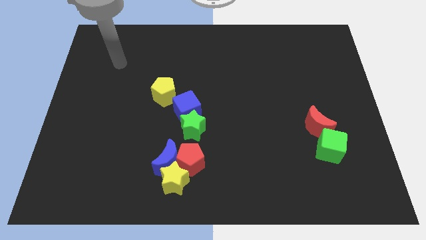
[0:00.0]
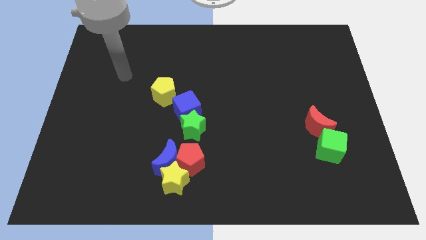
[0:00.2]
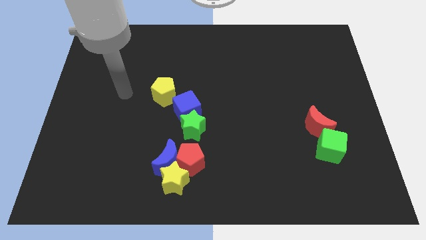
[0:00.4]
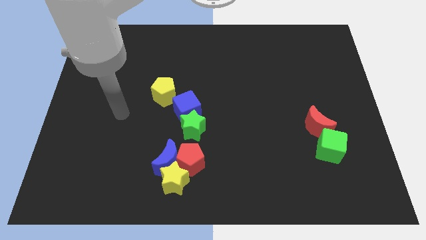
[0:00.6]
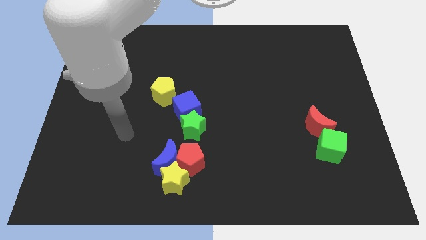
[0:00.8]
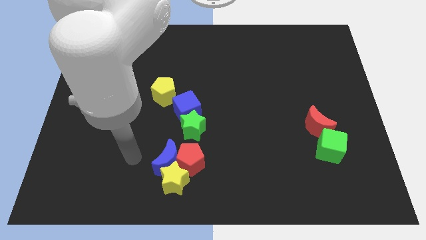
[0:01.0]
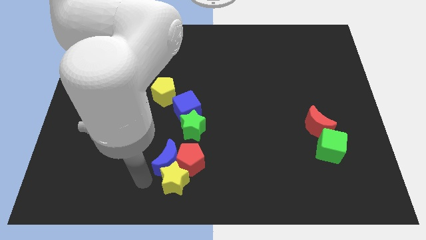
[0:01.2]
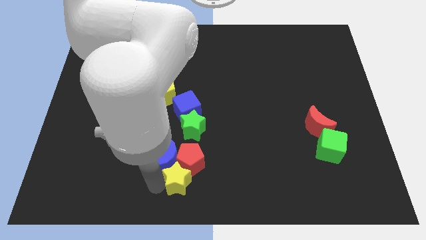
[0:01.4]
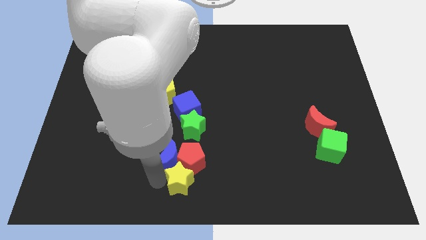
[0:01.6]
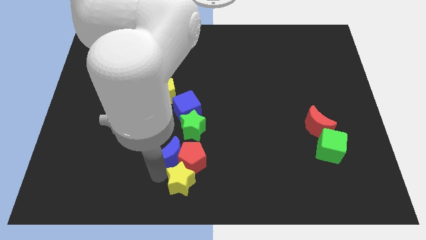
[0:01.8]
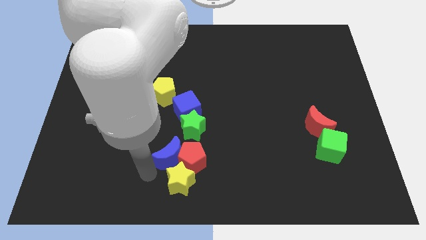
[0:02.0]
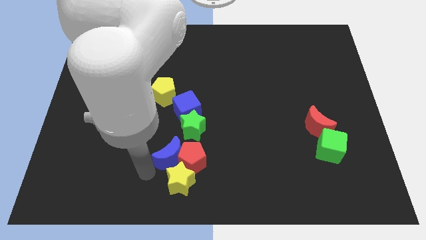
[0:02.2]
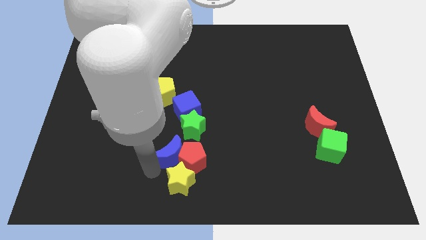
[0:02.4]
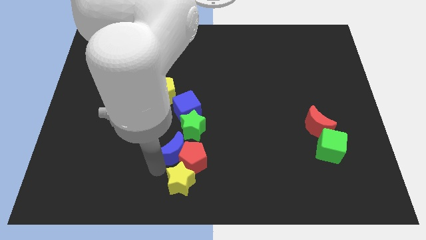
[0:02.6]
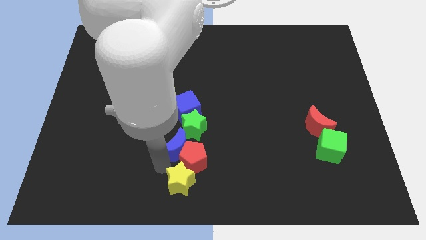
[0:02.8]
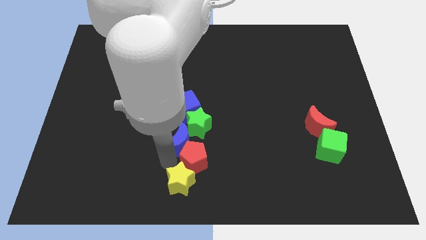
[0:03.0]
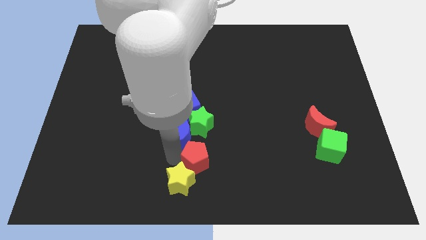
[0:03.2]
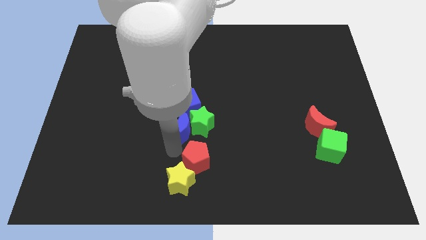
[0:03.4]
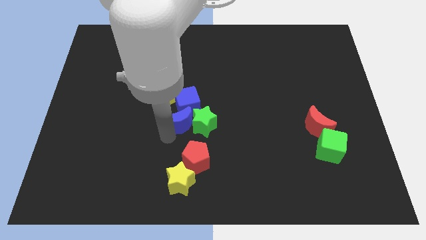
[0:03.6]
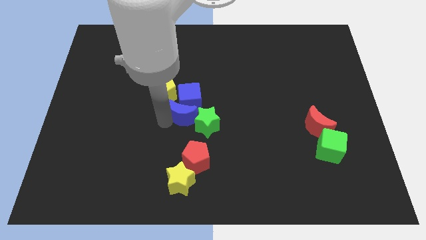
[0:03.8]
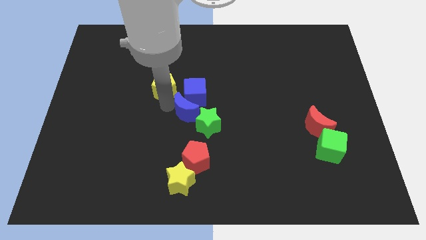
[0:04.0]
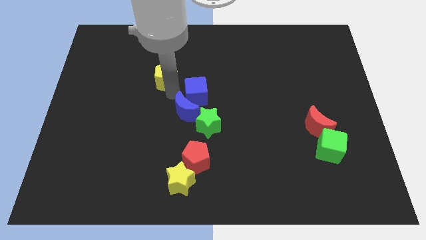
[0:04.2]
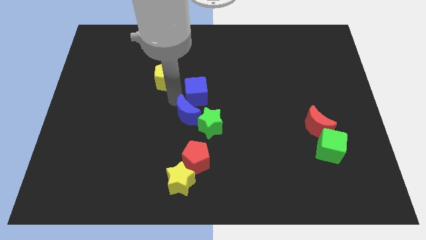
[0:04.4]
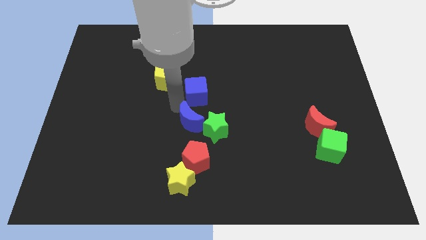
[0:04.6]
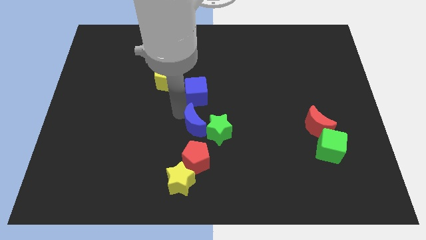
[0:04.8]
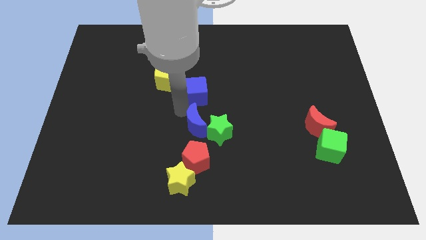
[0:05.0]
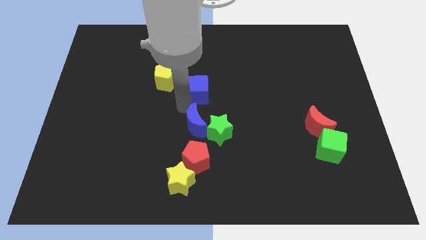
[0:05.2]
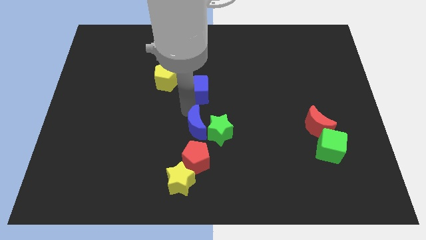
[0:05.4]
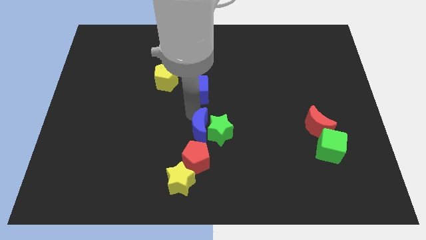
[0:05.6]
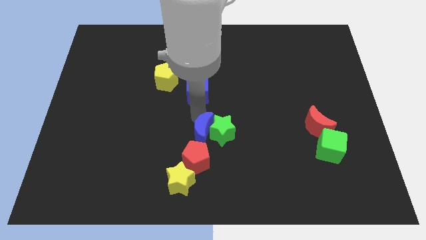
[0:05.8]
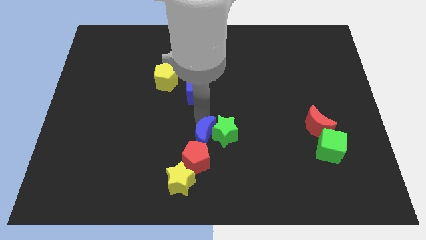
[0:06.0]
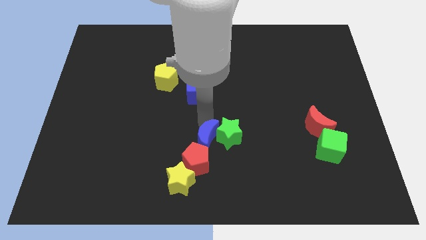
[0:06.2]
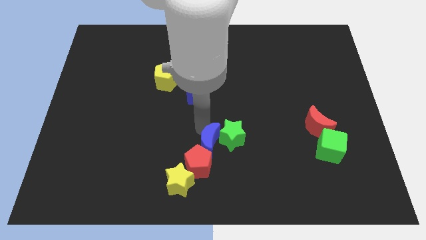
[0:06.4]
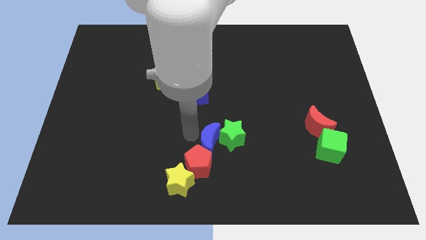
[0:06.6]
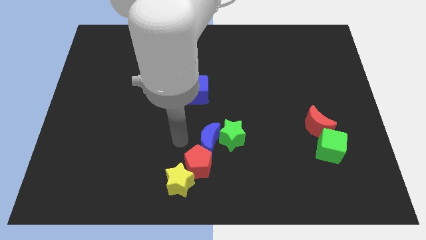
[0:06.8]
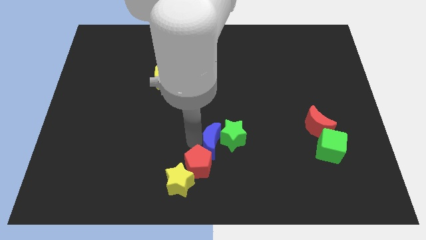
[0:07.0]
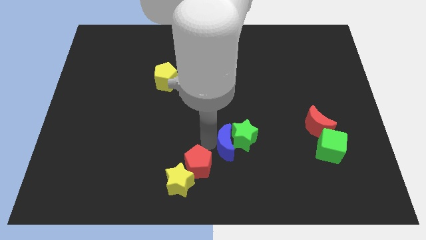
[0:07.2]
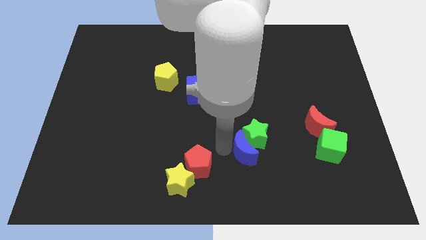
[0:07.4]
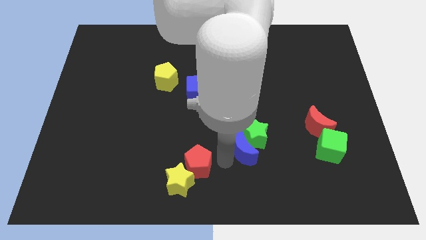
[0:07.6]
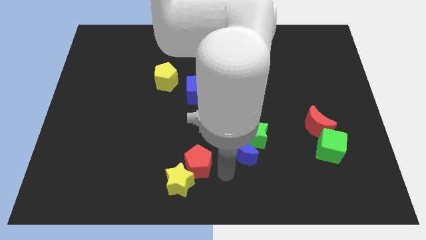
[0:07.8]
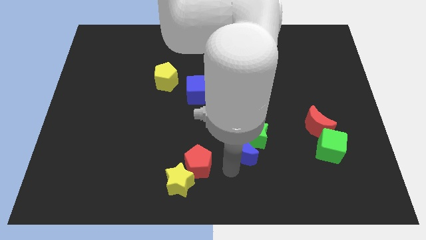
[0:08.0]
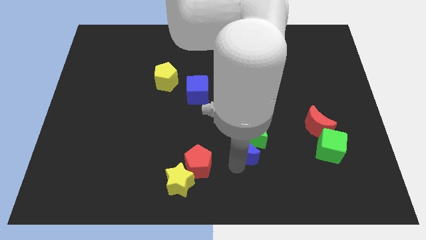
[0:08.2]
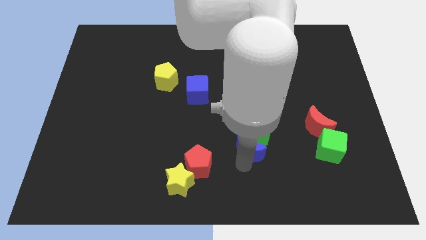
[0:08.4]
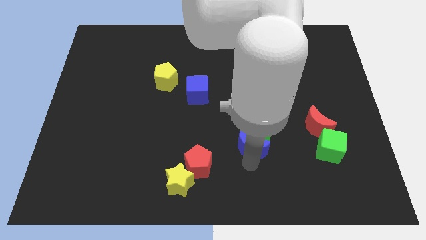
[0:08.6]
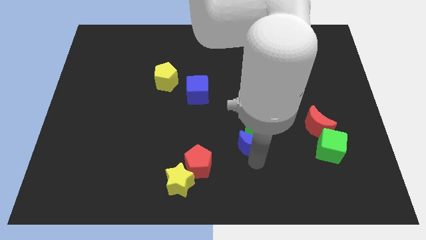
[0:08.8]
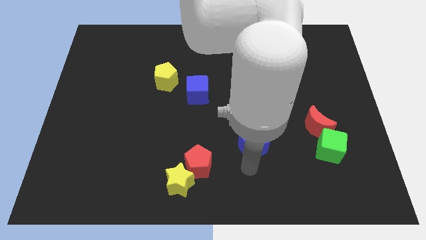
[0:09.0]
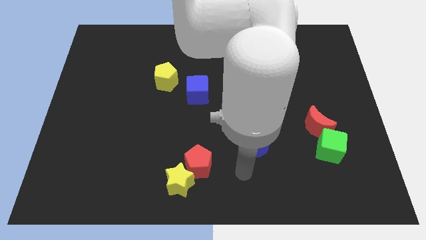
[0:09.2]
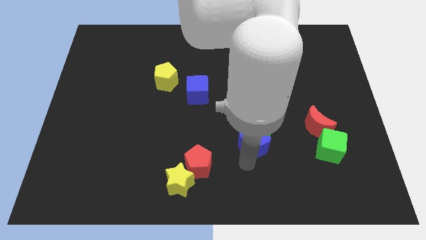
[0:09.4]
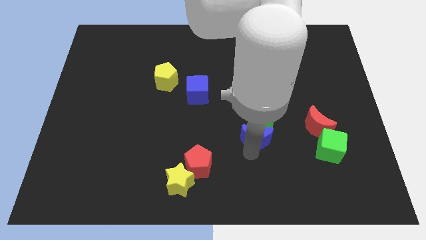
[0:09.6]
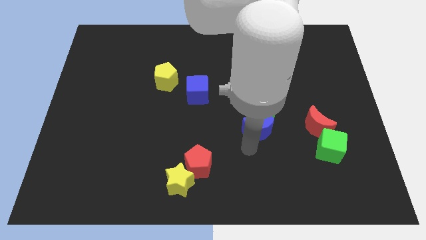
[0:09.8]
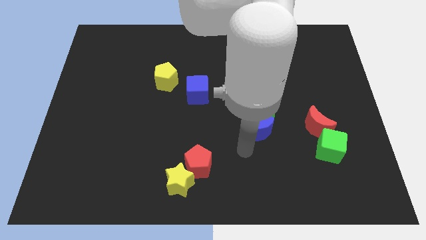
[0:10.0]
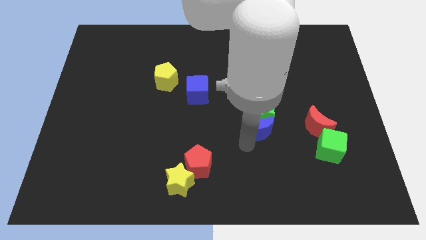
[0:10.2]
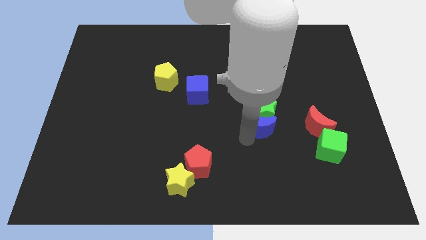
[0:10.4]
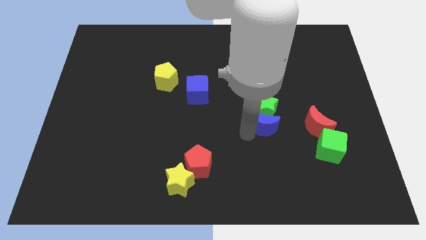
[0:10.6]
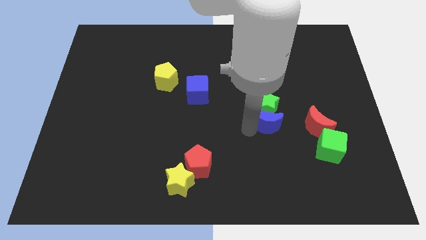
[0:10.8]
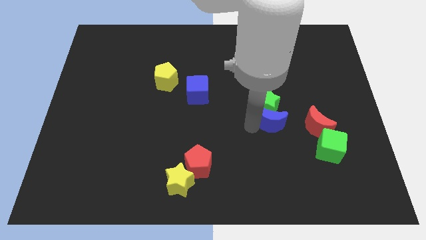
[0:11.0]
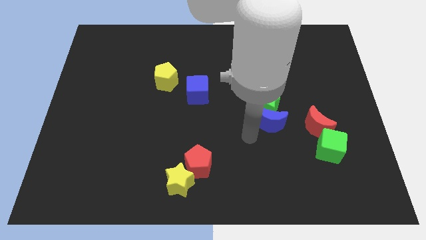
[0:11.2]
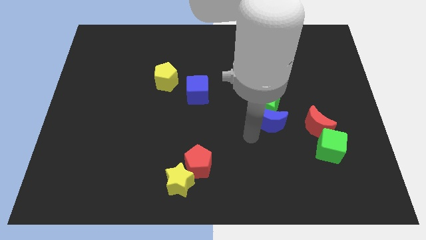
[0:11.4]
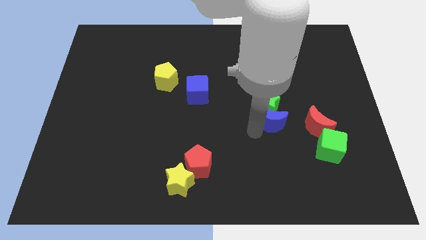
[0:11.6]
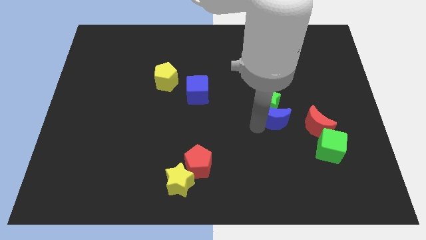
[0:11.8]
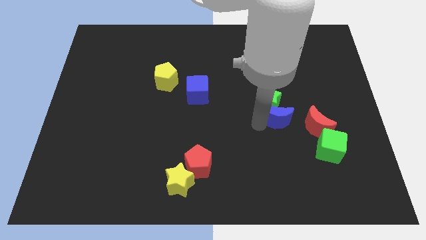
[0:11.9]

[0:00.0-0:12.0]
slide the blue moon diagonally up and to the left of the red moon

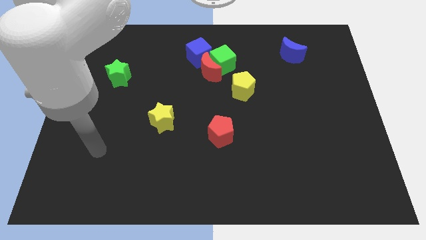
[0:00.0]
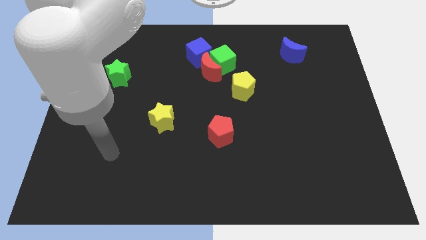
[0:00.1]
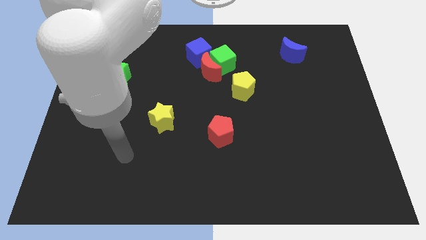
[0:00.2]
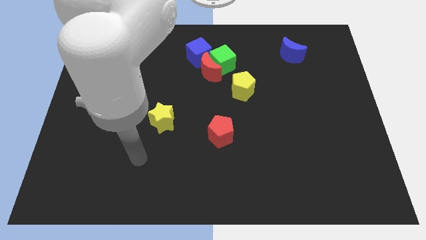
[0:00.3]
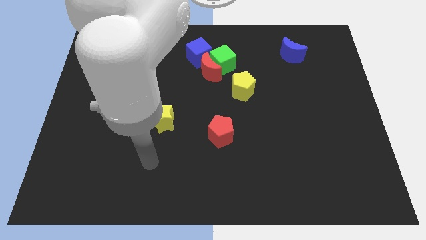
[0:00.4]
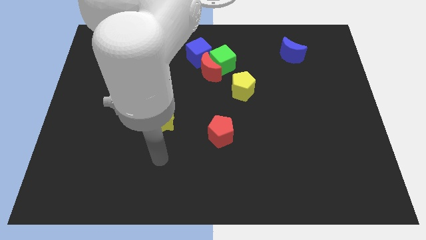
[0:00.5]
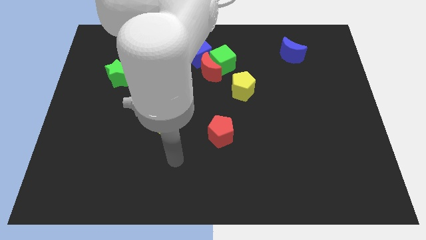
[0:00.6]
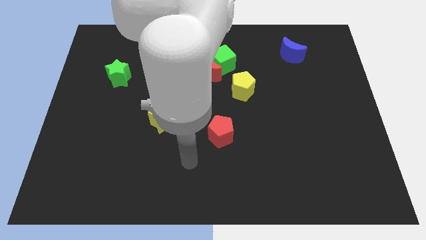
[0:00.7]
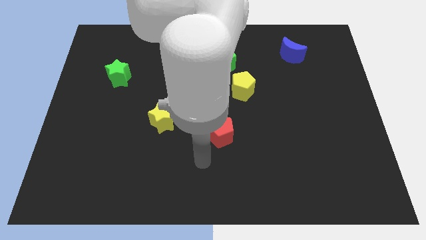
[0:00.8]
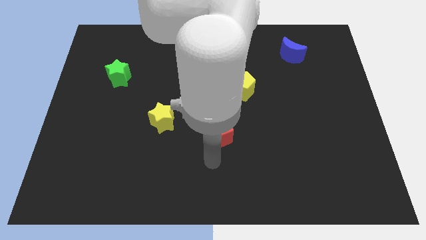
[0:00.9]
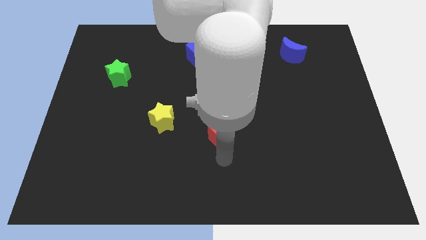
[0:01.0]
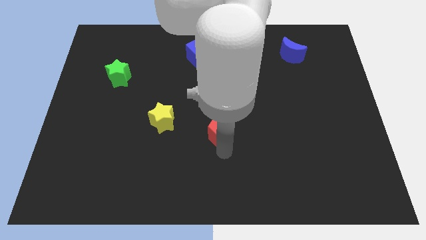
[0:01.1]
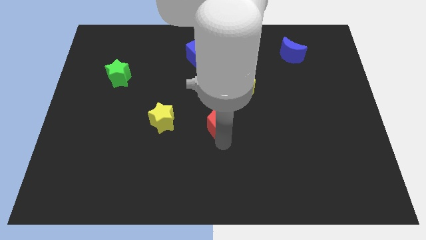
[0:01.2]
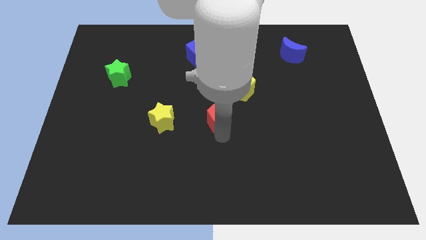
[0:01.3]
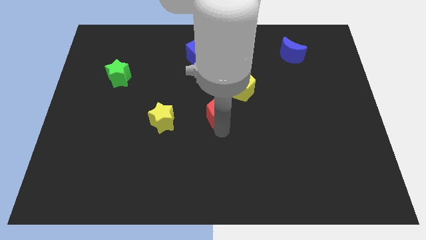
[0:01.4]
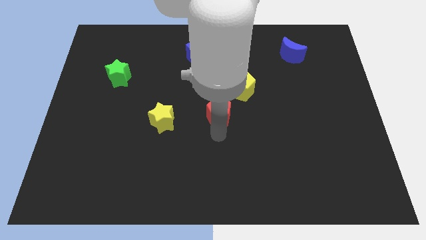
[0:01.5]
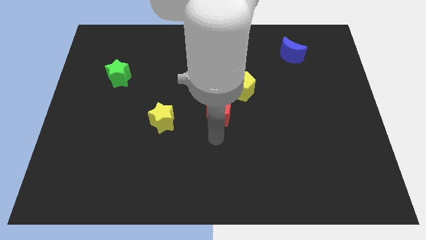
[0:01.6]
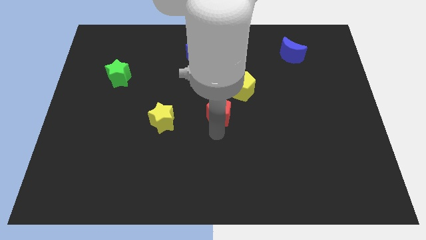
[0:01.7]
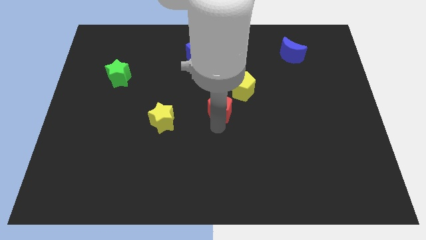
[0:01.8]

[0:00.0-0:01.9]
move the red pentagon below the green cube
